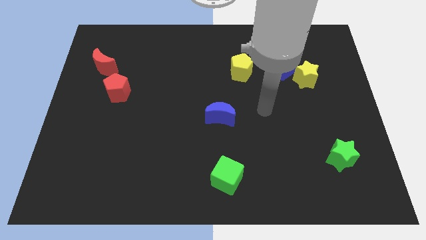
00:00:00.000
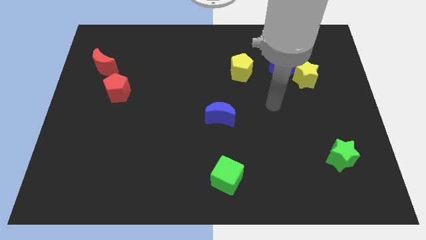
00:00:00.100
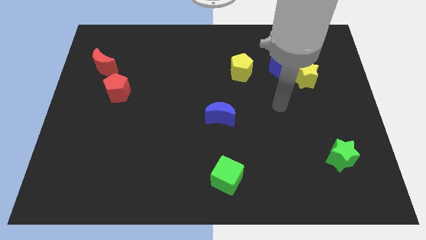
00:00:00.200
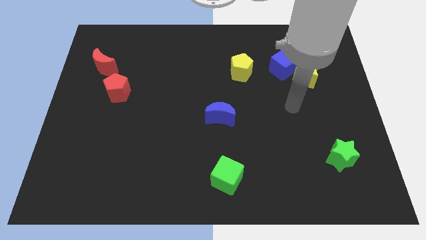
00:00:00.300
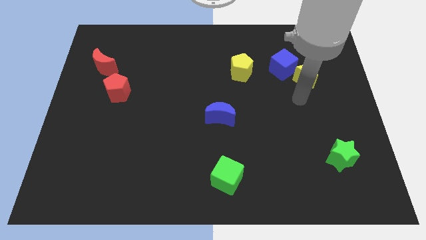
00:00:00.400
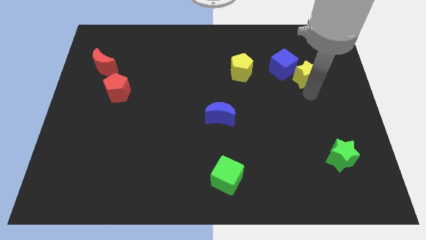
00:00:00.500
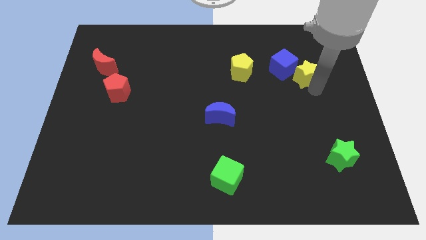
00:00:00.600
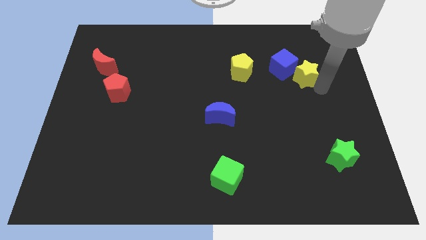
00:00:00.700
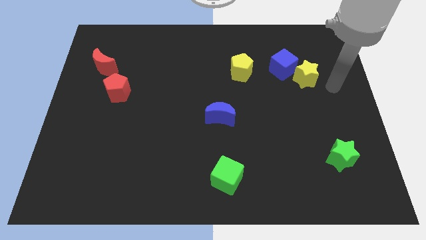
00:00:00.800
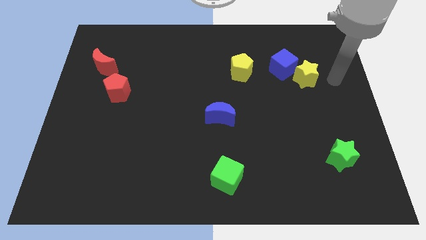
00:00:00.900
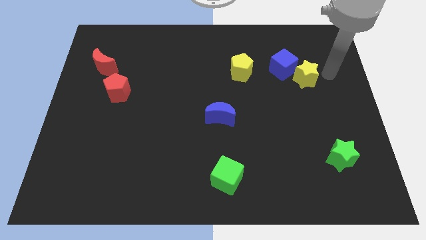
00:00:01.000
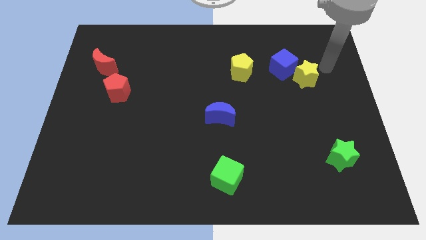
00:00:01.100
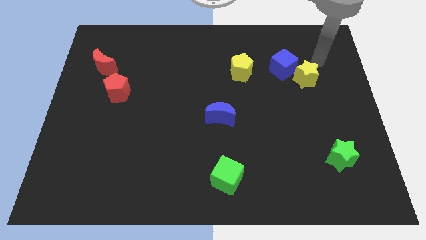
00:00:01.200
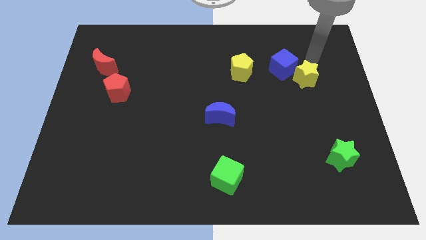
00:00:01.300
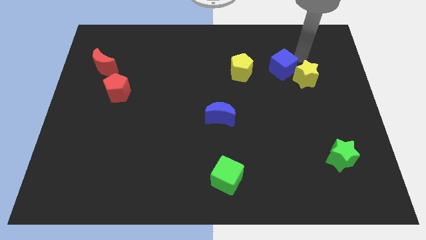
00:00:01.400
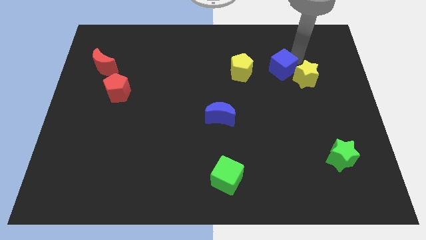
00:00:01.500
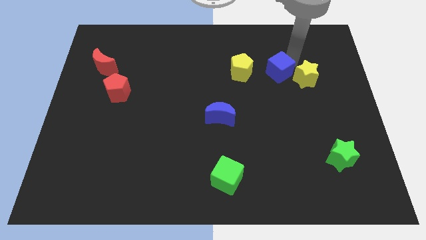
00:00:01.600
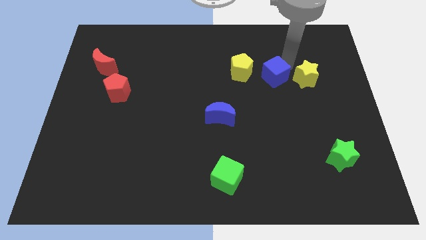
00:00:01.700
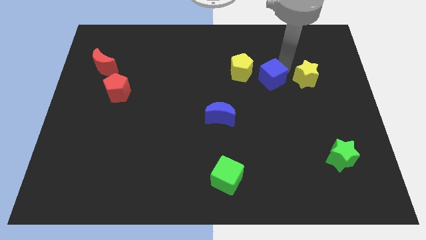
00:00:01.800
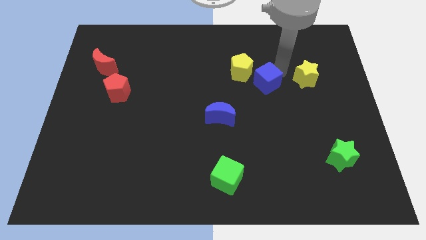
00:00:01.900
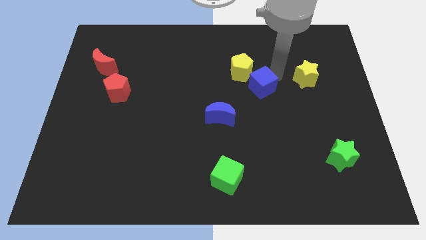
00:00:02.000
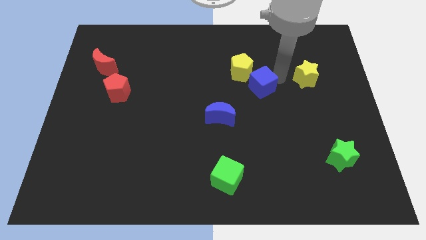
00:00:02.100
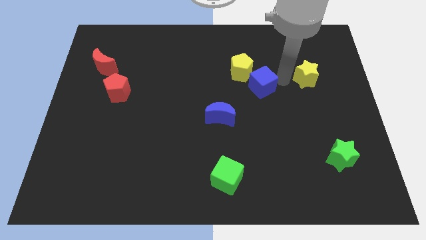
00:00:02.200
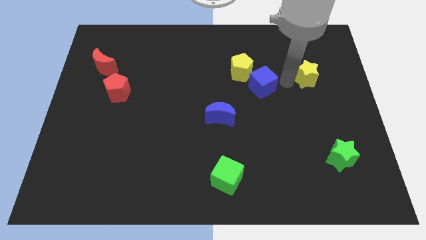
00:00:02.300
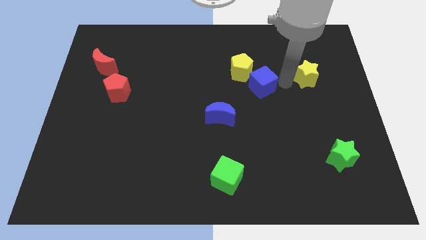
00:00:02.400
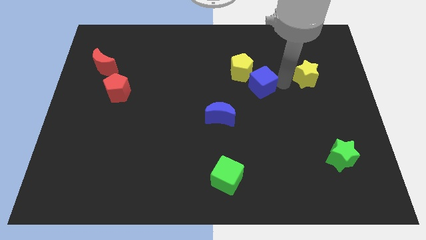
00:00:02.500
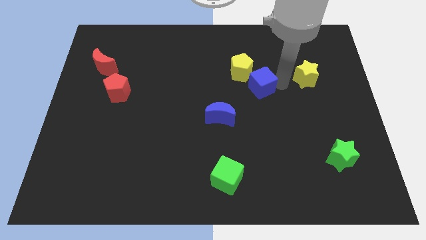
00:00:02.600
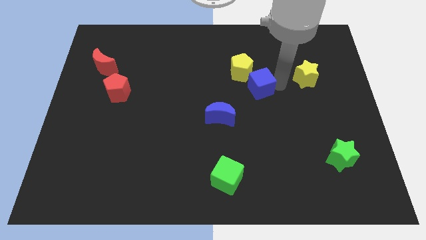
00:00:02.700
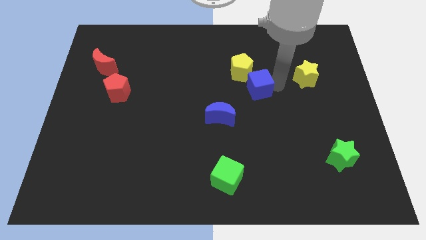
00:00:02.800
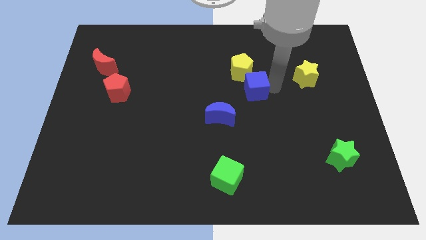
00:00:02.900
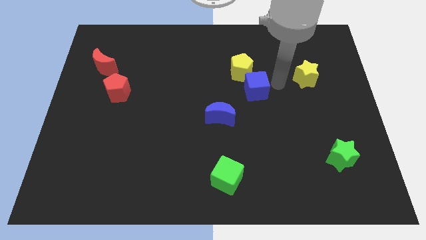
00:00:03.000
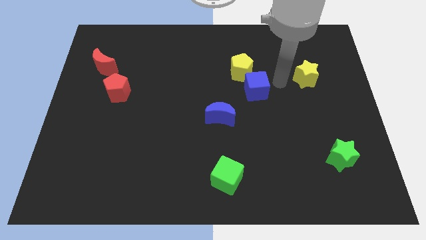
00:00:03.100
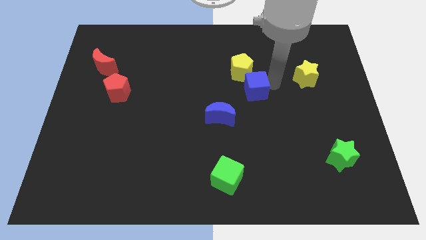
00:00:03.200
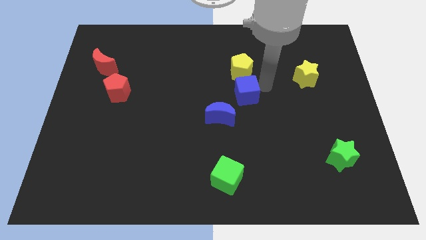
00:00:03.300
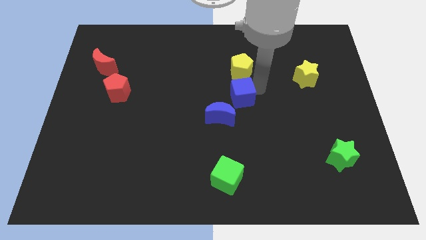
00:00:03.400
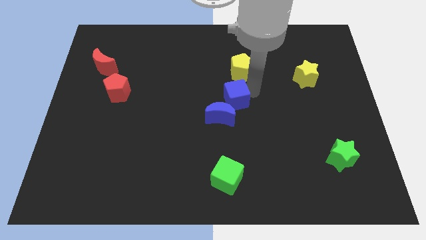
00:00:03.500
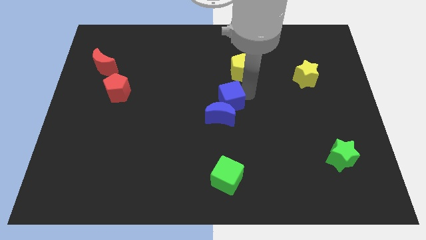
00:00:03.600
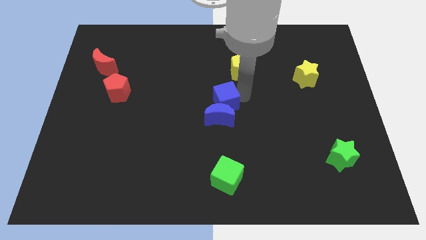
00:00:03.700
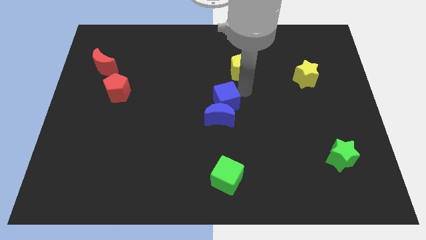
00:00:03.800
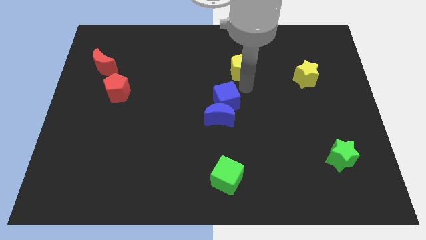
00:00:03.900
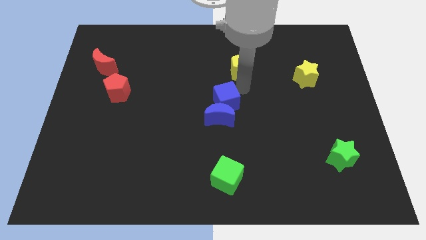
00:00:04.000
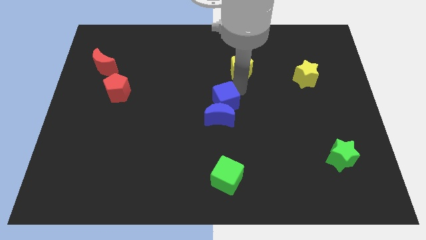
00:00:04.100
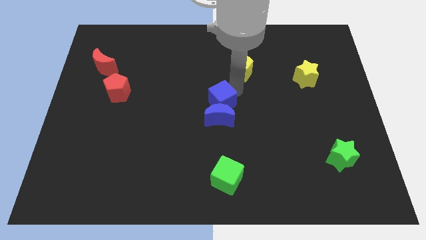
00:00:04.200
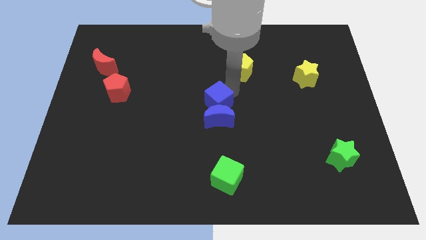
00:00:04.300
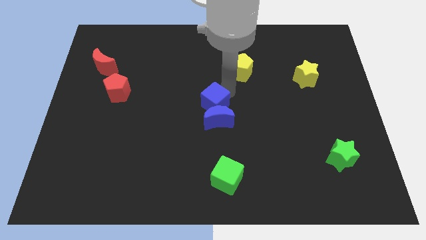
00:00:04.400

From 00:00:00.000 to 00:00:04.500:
slide the blue cube down and to the left diagonally

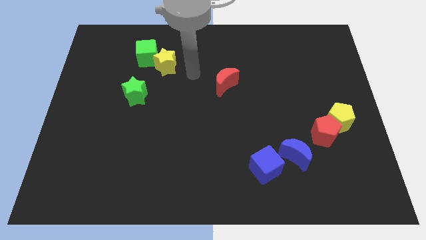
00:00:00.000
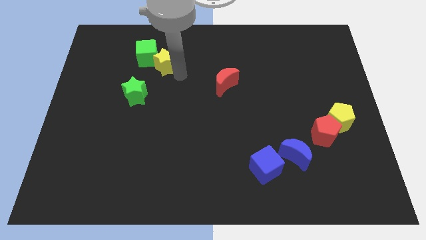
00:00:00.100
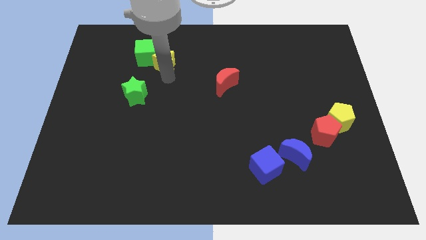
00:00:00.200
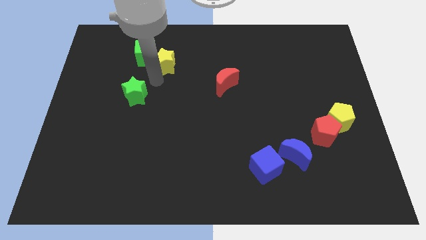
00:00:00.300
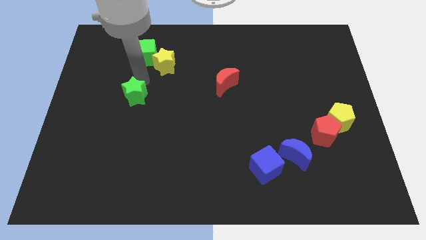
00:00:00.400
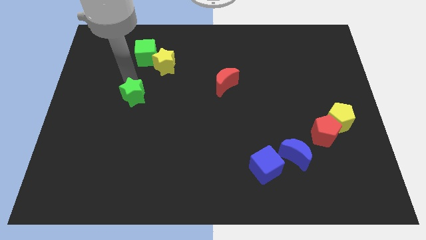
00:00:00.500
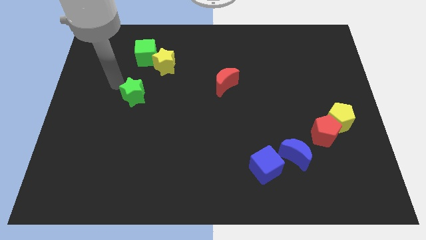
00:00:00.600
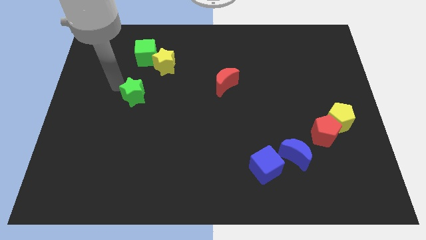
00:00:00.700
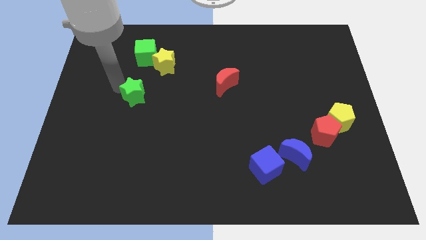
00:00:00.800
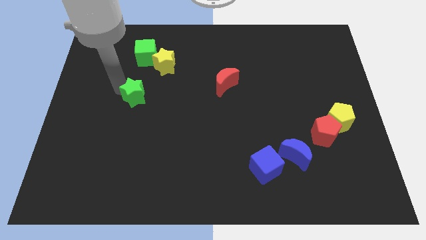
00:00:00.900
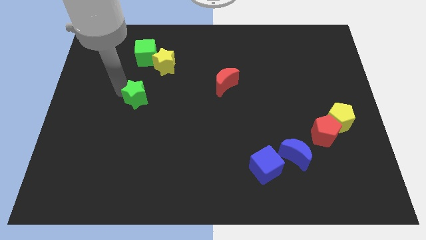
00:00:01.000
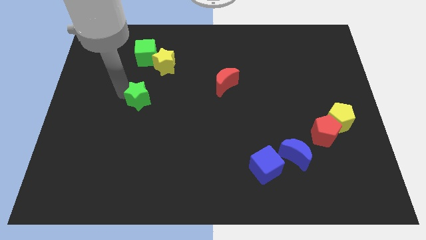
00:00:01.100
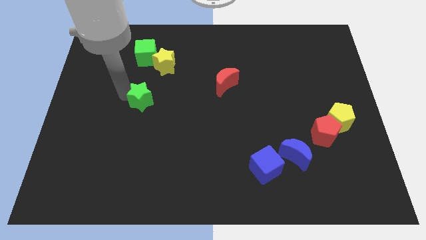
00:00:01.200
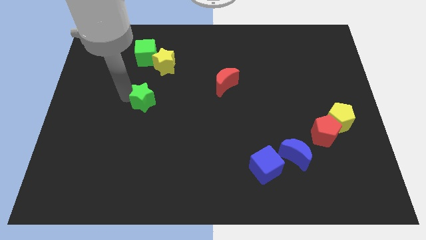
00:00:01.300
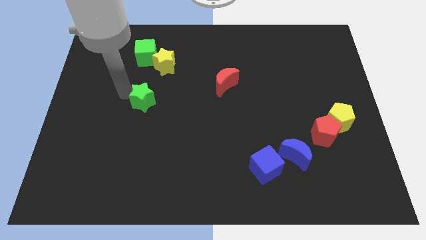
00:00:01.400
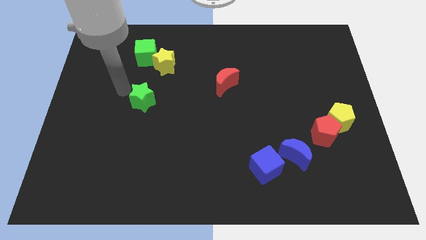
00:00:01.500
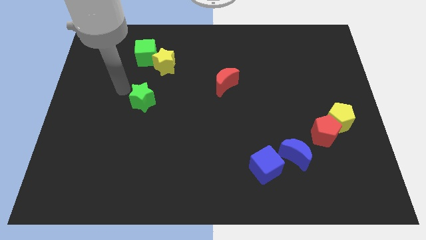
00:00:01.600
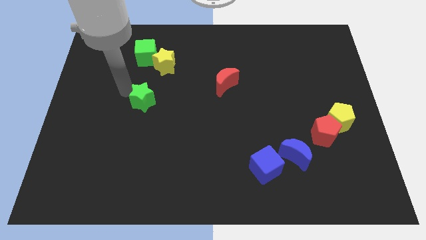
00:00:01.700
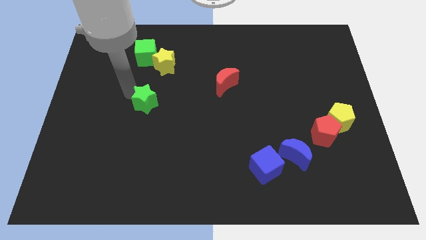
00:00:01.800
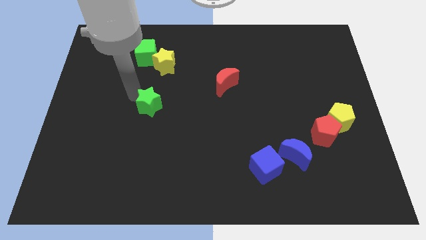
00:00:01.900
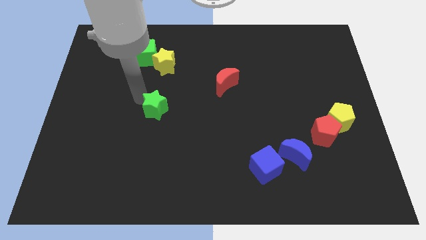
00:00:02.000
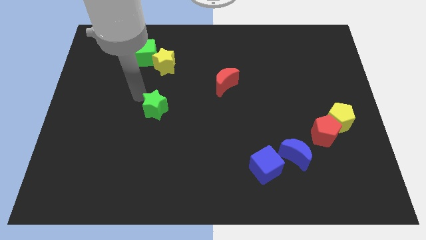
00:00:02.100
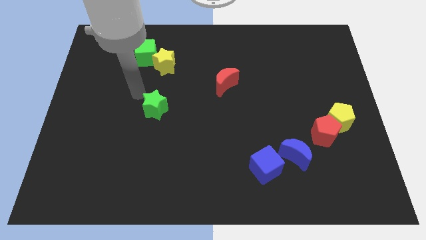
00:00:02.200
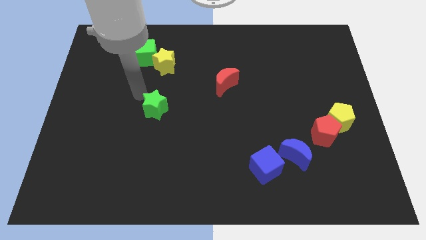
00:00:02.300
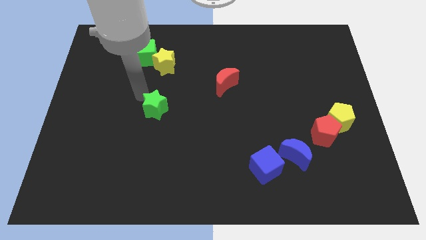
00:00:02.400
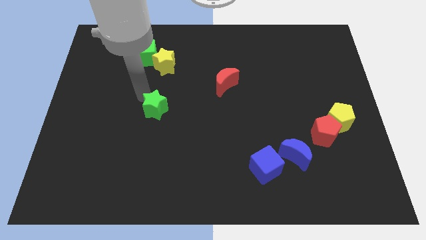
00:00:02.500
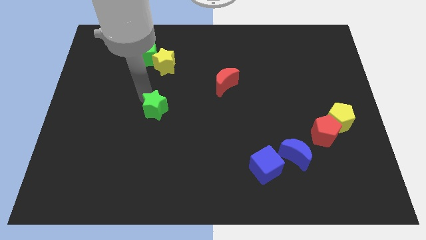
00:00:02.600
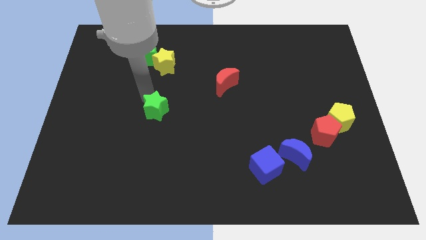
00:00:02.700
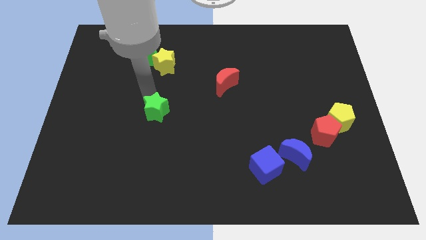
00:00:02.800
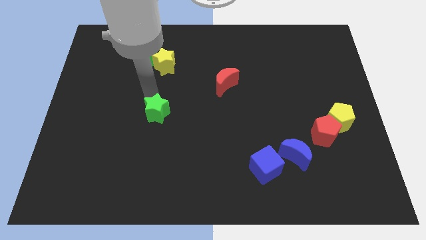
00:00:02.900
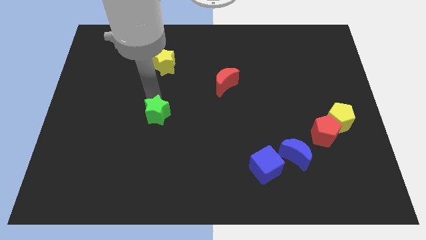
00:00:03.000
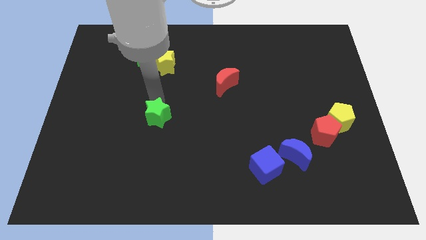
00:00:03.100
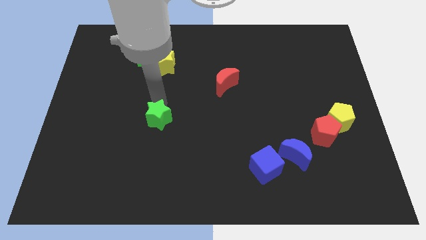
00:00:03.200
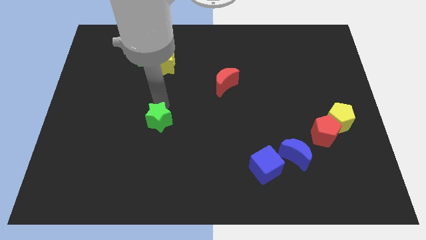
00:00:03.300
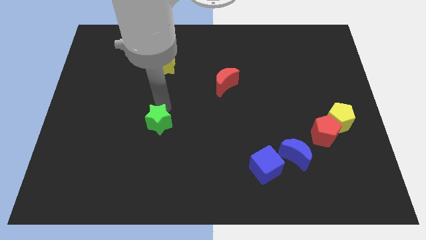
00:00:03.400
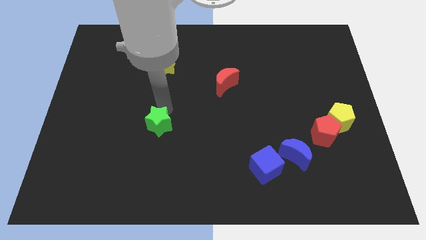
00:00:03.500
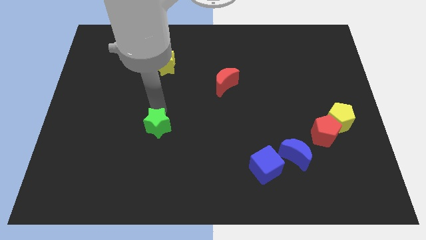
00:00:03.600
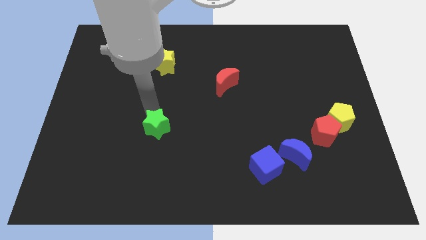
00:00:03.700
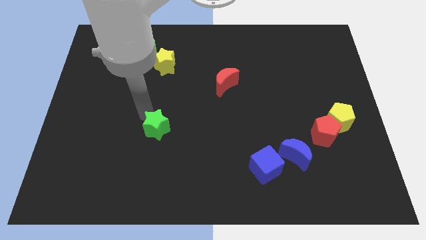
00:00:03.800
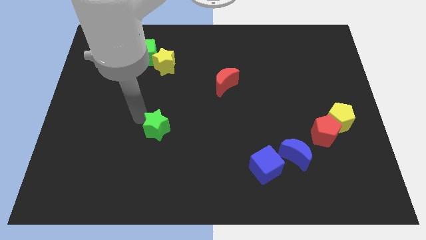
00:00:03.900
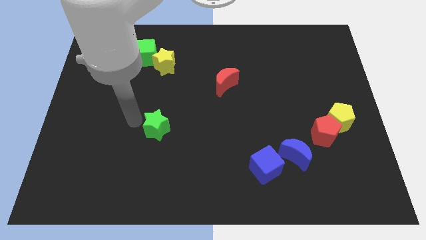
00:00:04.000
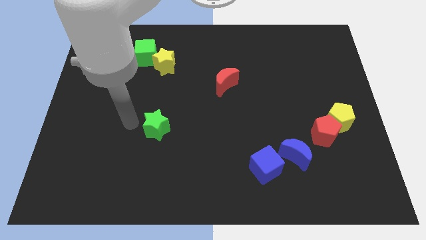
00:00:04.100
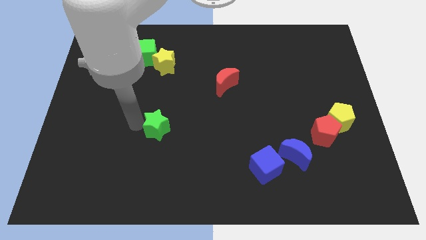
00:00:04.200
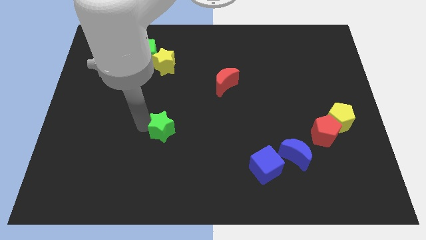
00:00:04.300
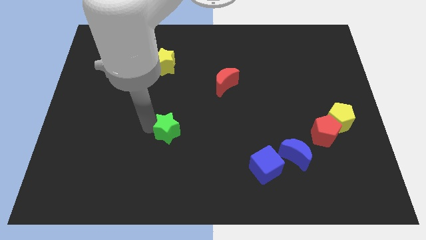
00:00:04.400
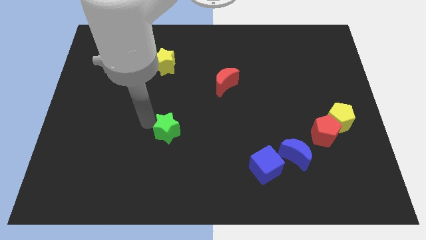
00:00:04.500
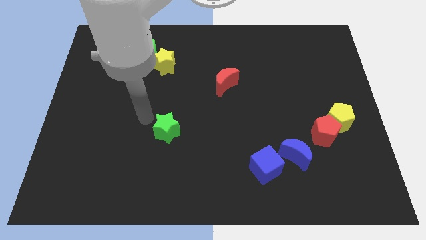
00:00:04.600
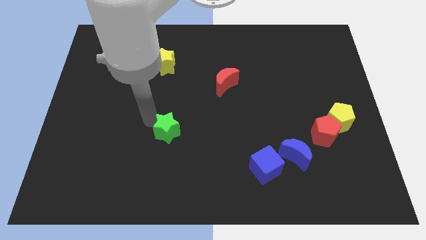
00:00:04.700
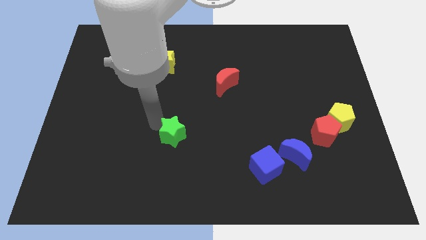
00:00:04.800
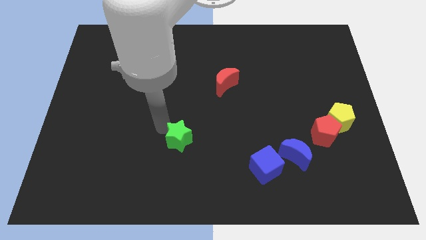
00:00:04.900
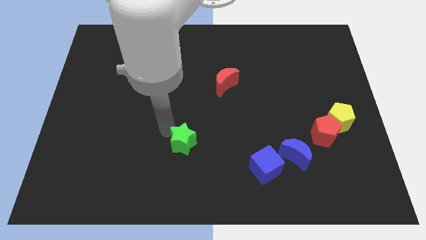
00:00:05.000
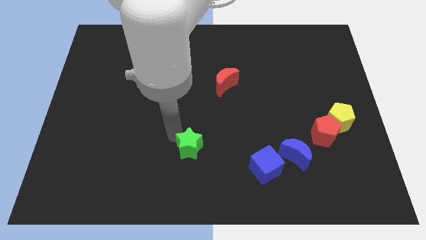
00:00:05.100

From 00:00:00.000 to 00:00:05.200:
move the green star downwards and to the right
